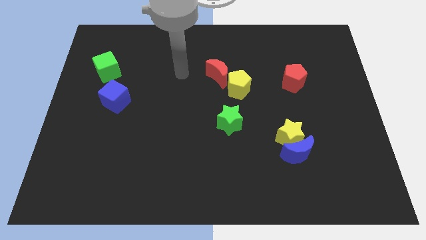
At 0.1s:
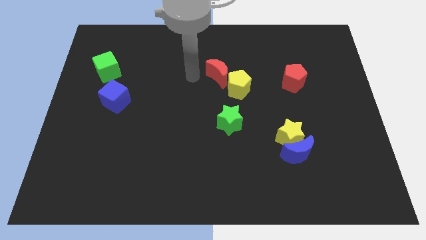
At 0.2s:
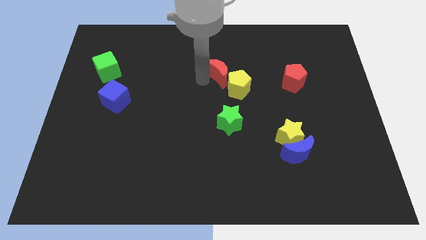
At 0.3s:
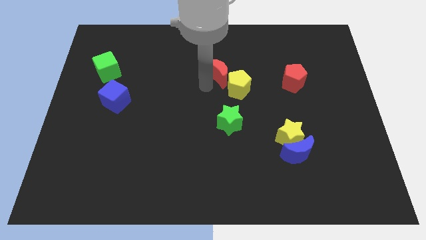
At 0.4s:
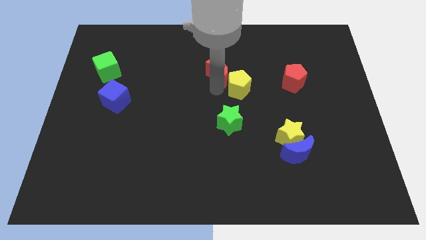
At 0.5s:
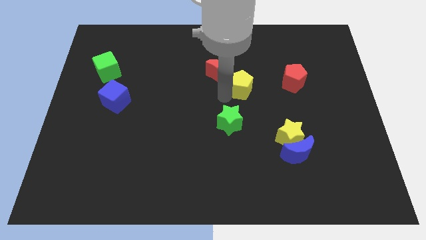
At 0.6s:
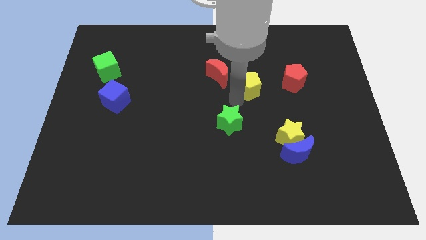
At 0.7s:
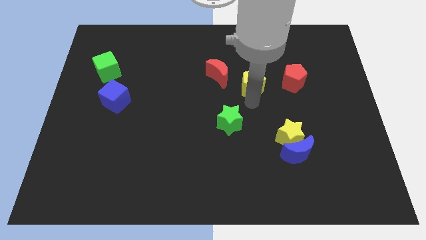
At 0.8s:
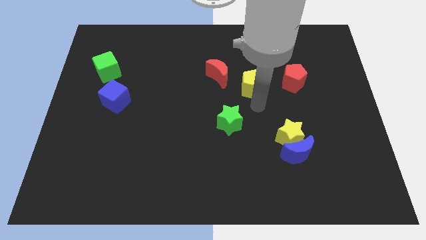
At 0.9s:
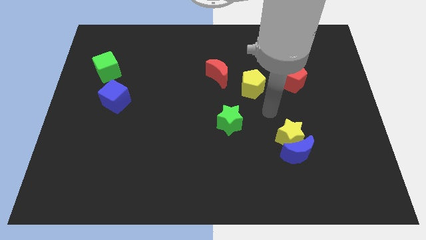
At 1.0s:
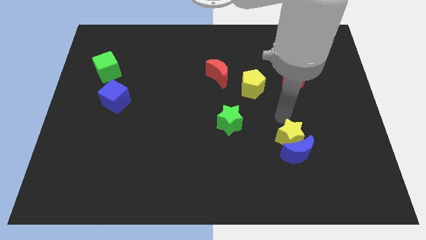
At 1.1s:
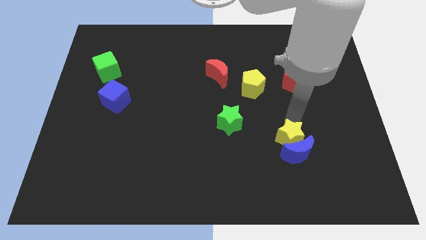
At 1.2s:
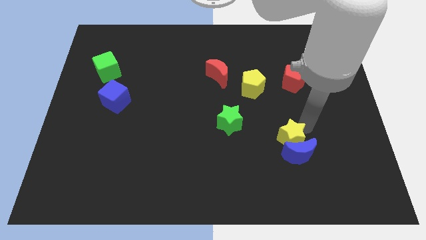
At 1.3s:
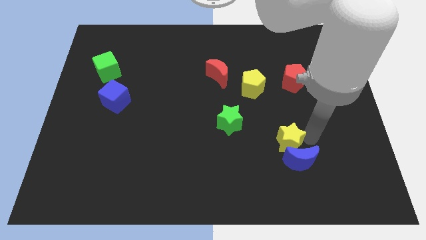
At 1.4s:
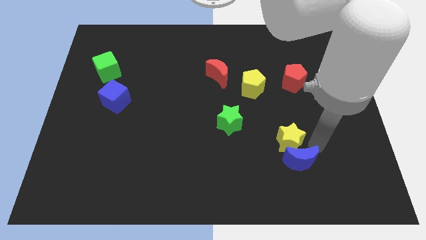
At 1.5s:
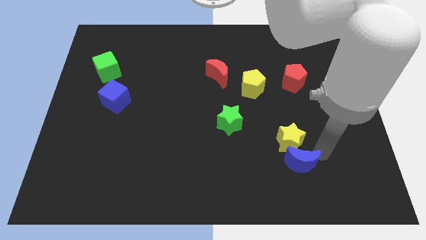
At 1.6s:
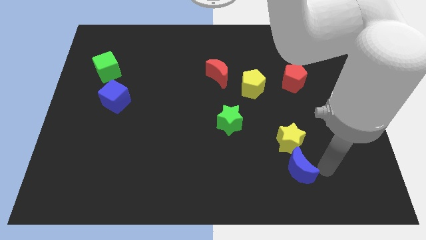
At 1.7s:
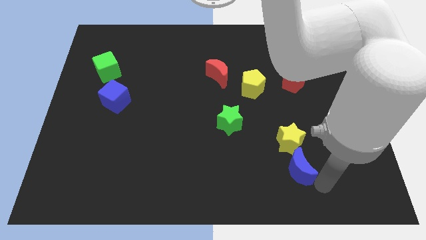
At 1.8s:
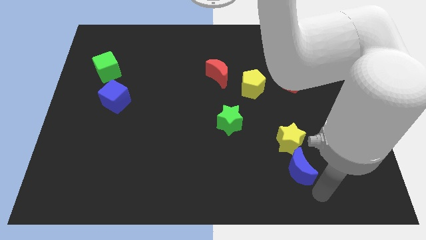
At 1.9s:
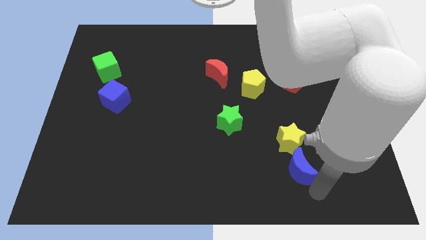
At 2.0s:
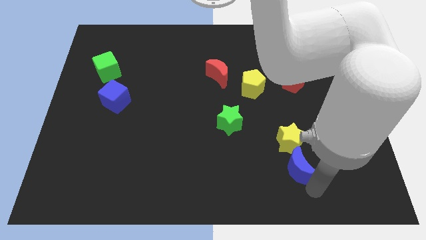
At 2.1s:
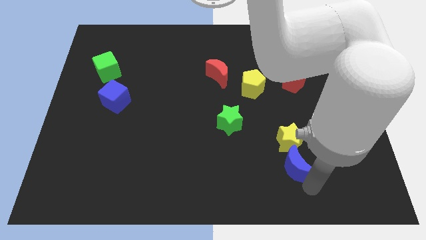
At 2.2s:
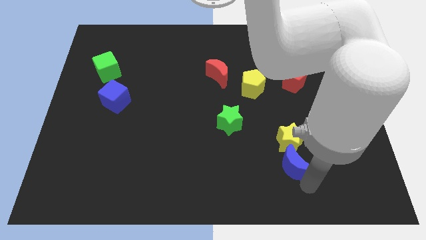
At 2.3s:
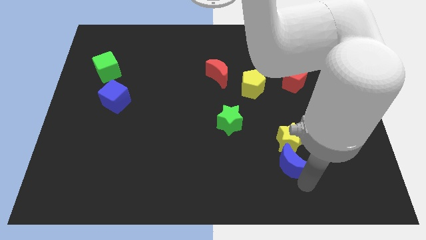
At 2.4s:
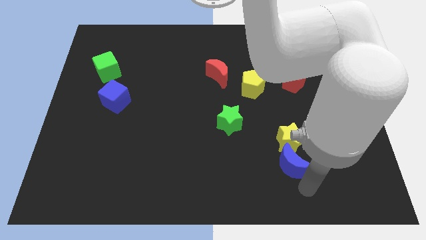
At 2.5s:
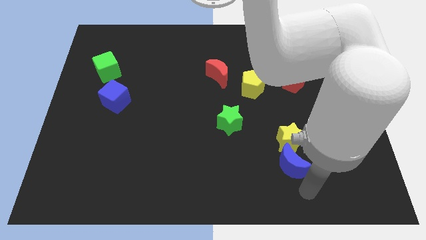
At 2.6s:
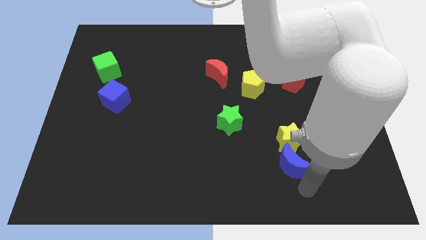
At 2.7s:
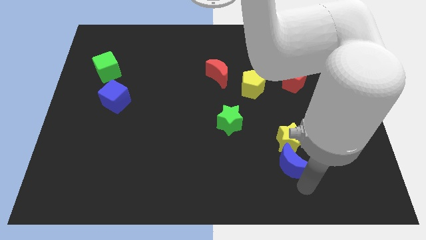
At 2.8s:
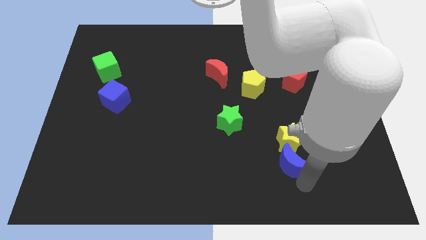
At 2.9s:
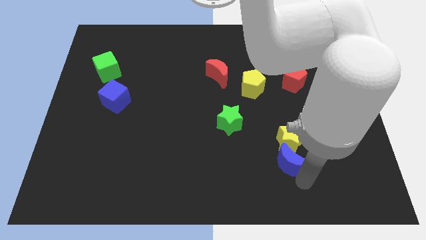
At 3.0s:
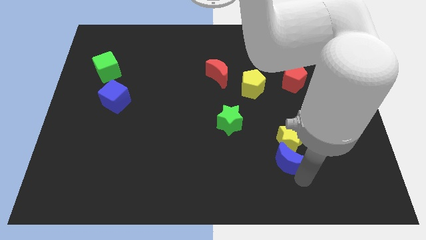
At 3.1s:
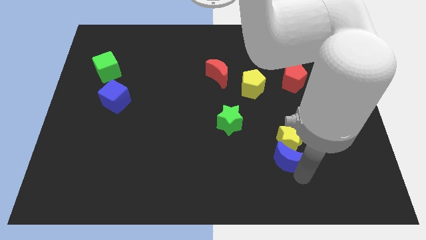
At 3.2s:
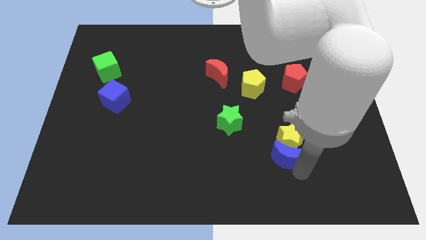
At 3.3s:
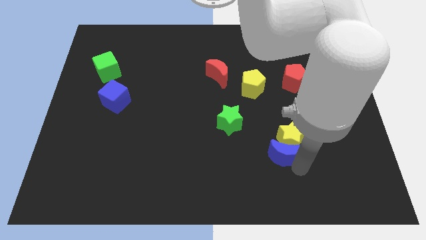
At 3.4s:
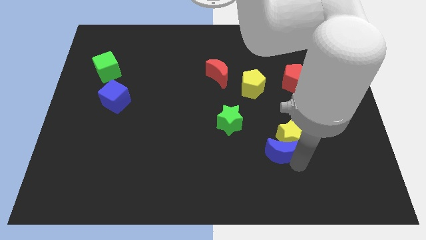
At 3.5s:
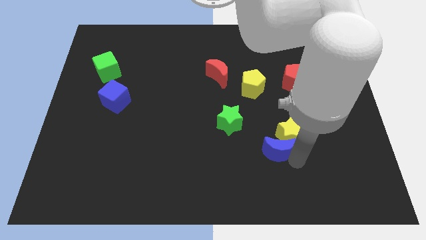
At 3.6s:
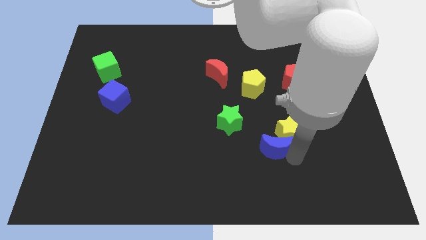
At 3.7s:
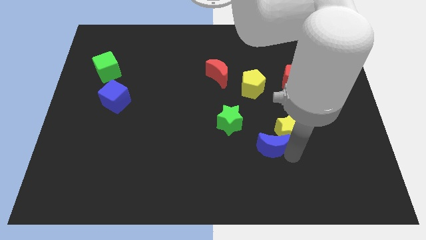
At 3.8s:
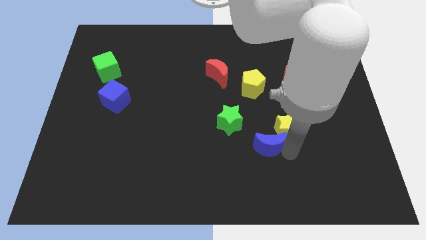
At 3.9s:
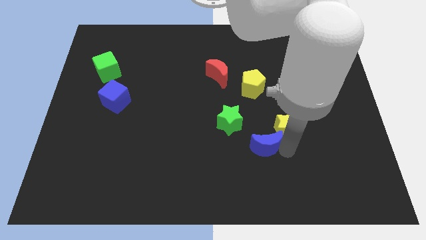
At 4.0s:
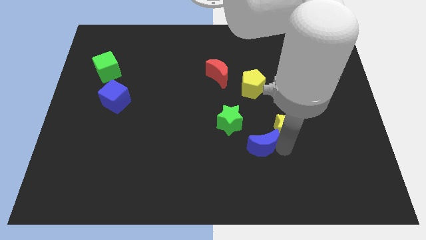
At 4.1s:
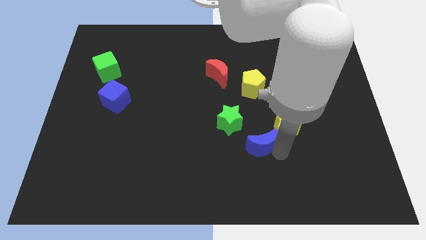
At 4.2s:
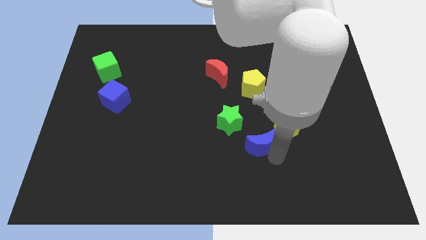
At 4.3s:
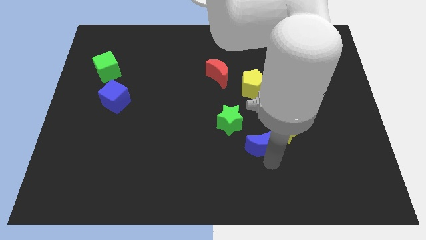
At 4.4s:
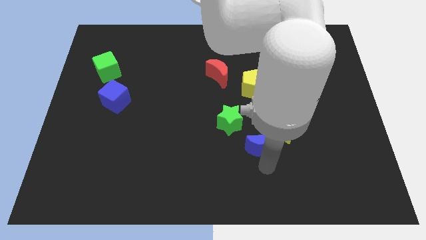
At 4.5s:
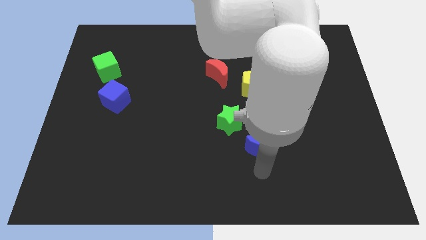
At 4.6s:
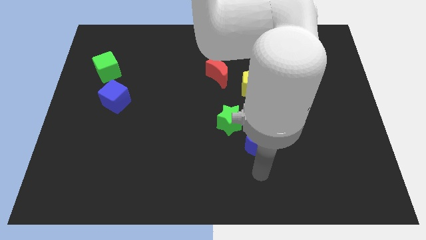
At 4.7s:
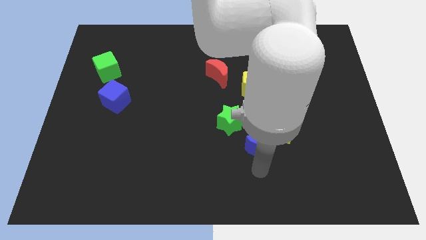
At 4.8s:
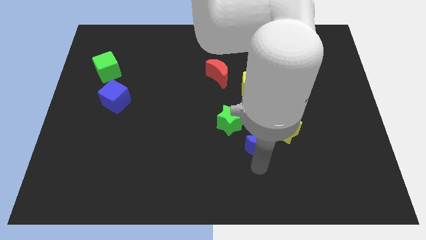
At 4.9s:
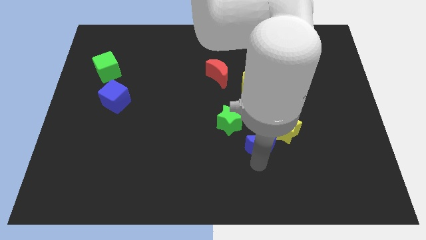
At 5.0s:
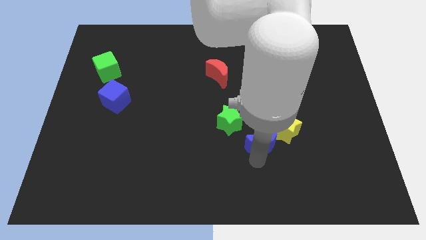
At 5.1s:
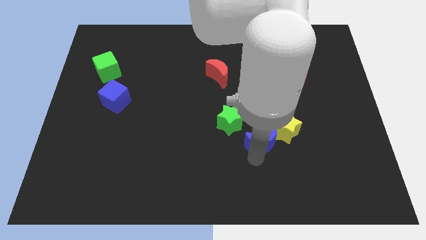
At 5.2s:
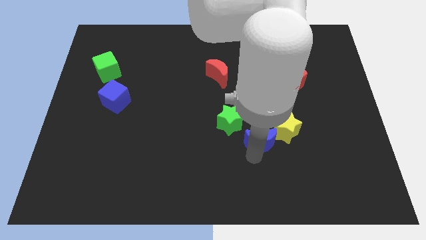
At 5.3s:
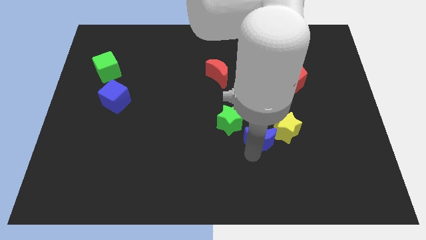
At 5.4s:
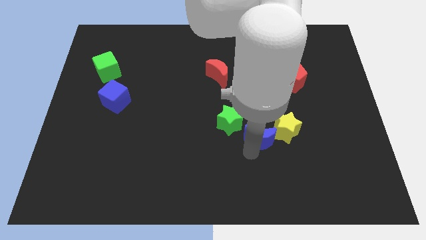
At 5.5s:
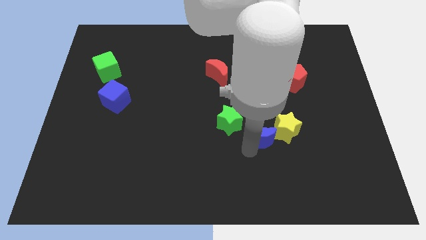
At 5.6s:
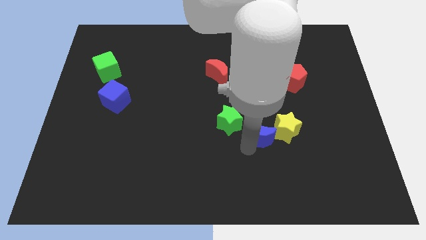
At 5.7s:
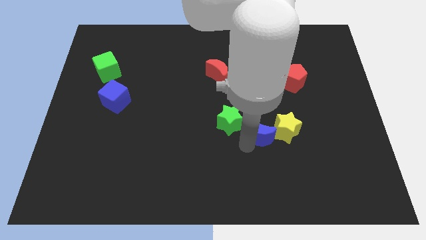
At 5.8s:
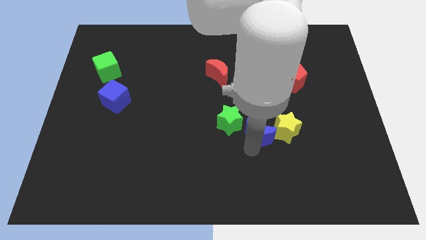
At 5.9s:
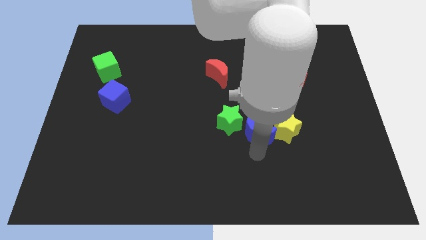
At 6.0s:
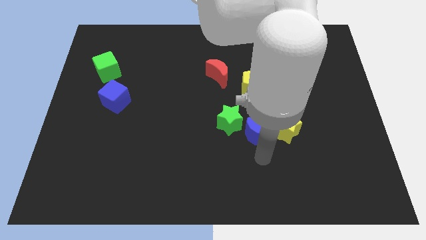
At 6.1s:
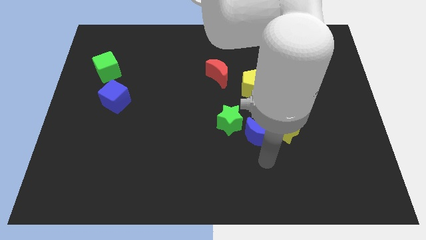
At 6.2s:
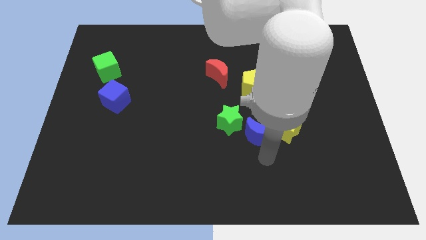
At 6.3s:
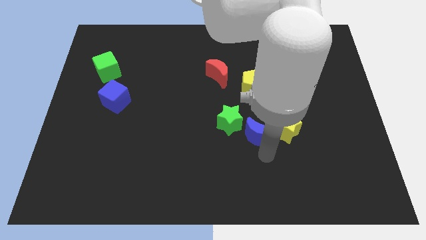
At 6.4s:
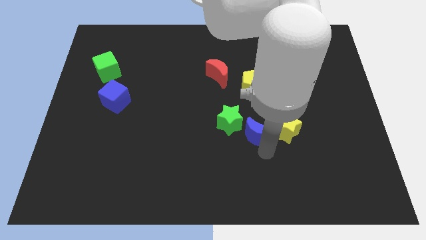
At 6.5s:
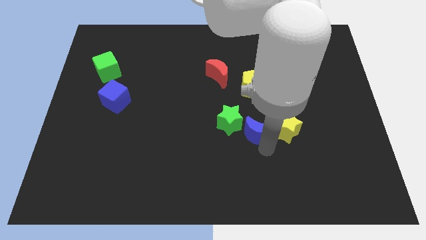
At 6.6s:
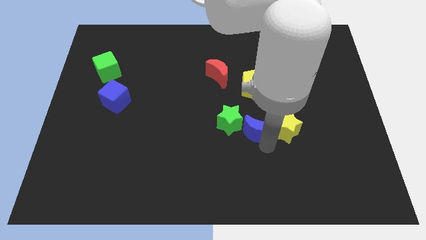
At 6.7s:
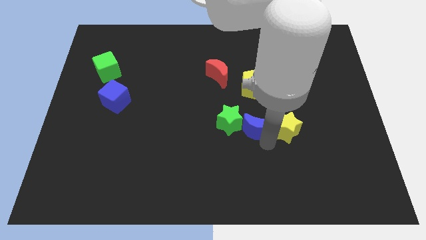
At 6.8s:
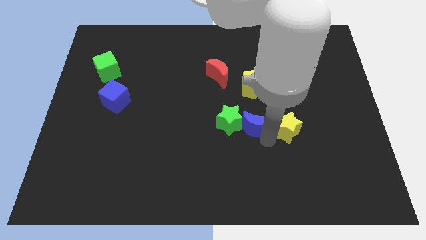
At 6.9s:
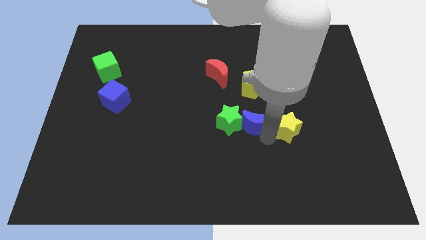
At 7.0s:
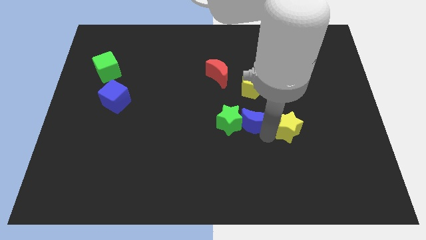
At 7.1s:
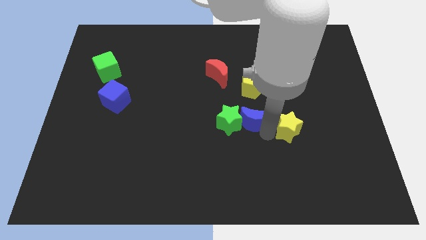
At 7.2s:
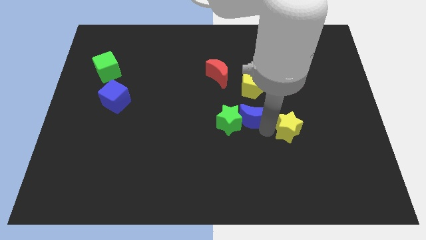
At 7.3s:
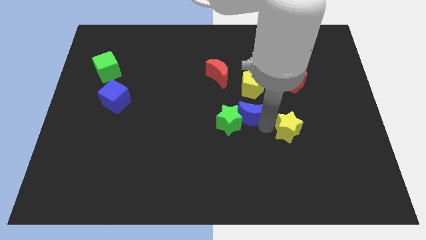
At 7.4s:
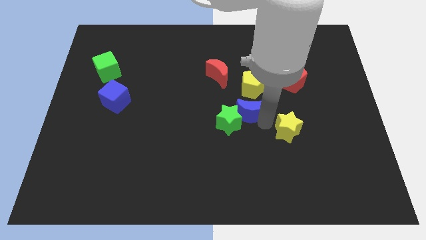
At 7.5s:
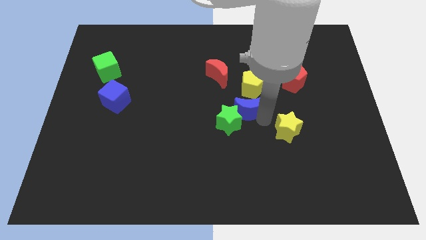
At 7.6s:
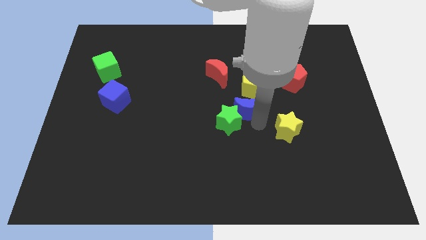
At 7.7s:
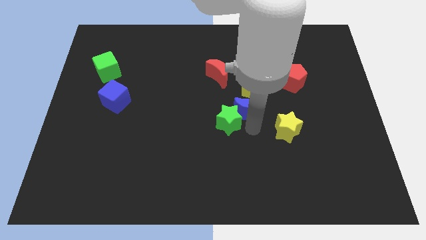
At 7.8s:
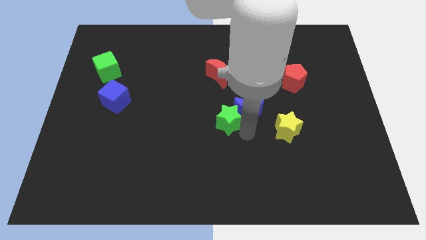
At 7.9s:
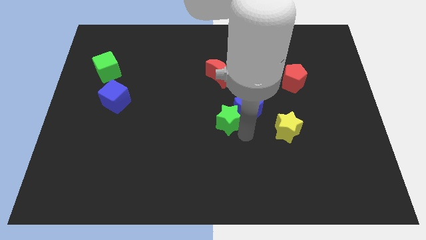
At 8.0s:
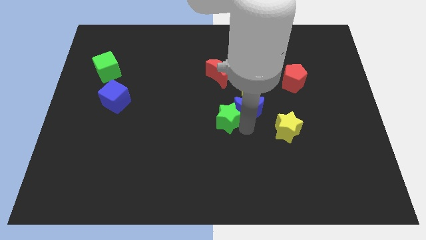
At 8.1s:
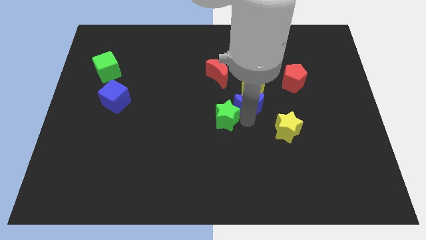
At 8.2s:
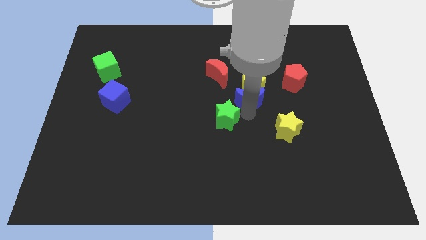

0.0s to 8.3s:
put the blue moon to the yellow pentagon
